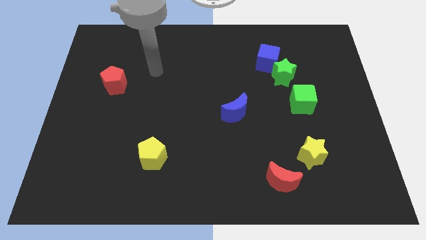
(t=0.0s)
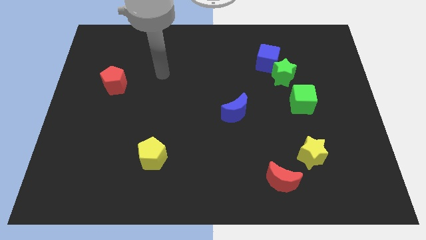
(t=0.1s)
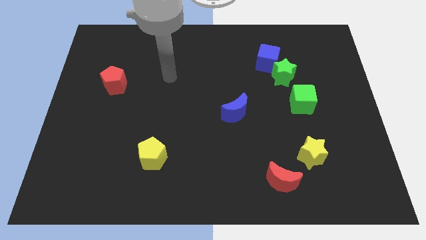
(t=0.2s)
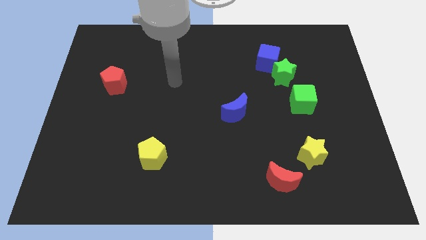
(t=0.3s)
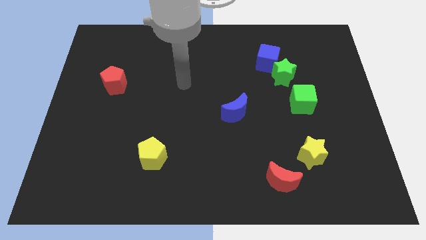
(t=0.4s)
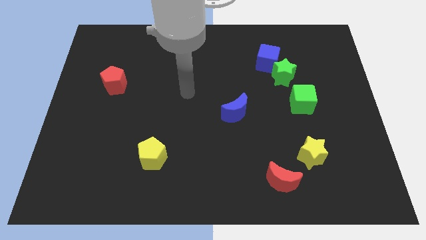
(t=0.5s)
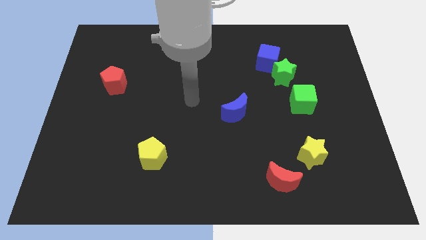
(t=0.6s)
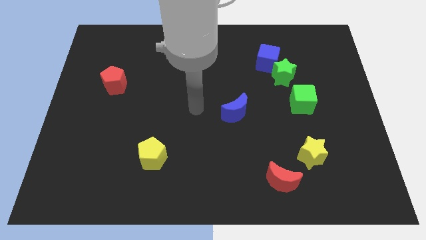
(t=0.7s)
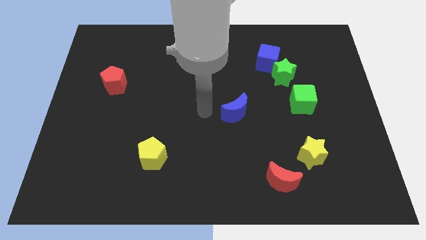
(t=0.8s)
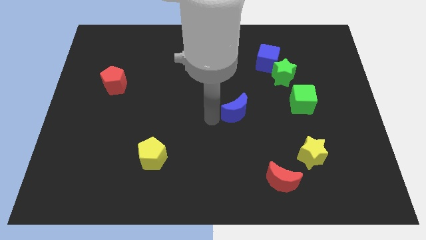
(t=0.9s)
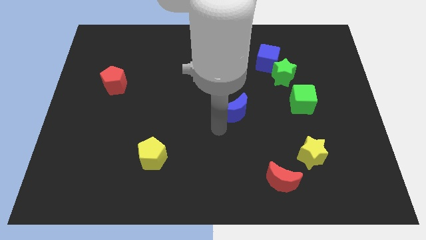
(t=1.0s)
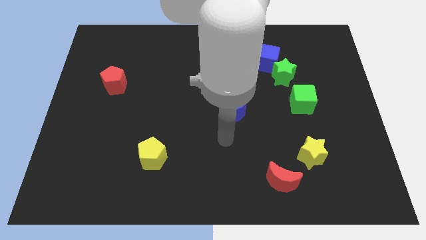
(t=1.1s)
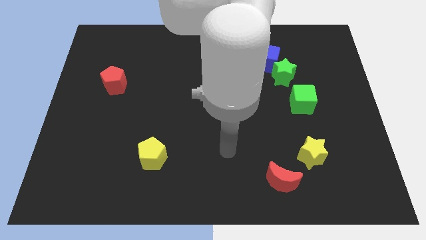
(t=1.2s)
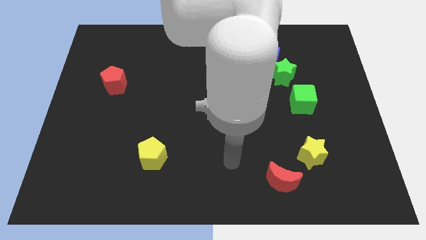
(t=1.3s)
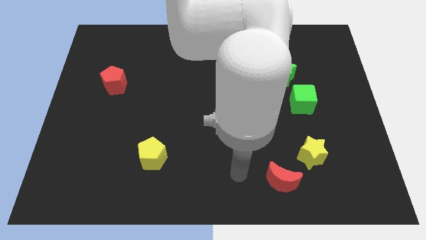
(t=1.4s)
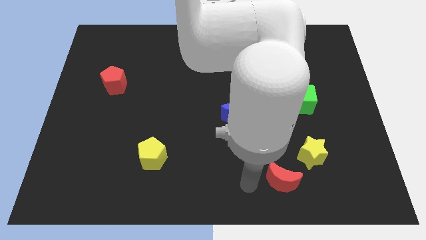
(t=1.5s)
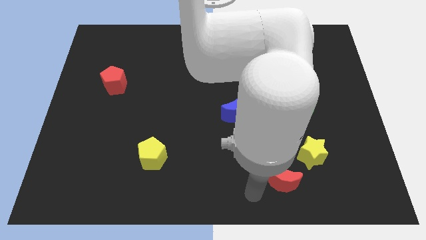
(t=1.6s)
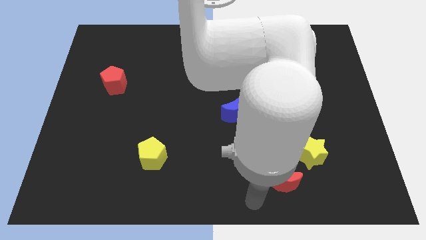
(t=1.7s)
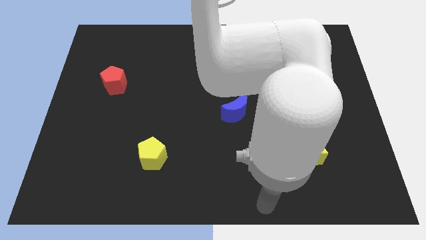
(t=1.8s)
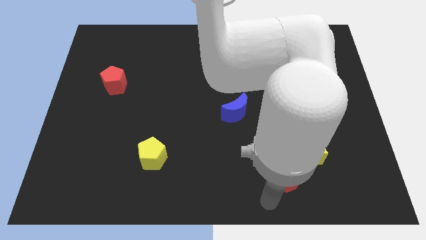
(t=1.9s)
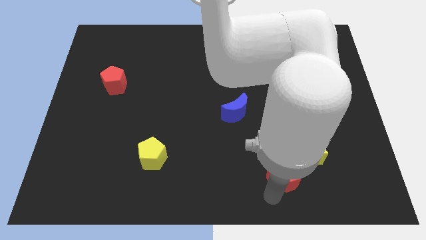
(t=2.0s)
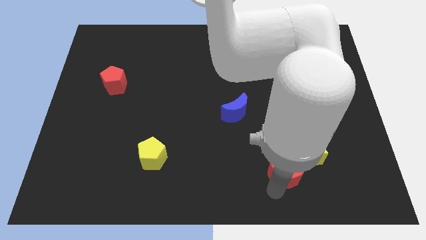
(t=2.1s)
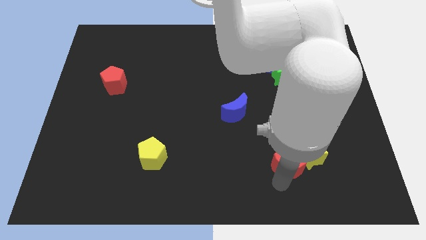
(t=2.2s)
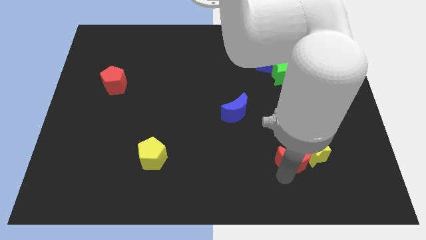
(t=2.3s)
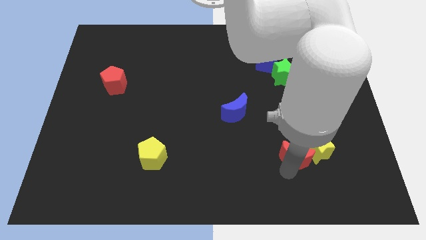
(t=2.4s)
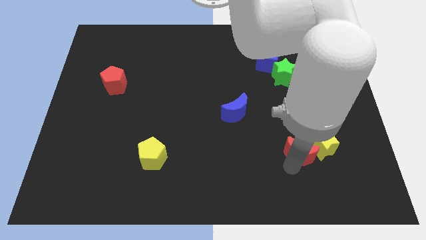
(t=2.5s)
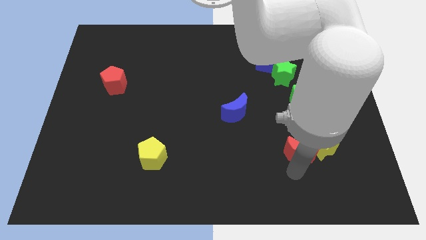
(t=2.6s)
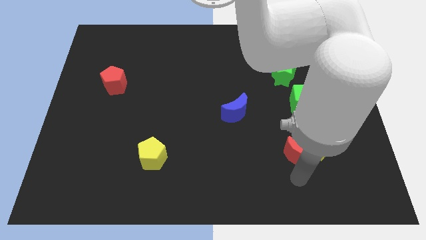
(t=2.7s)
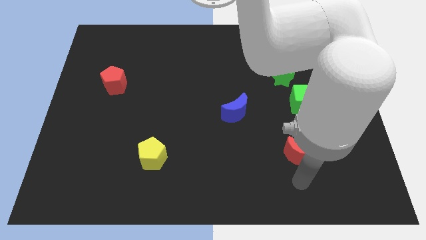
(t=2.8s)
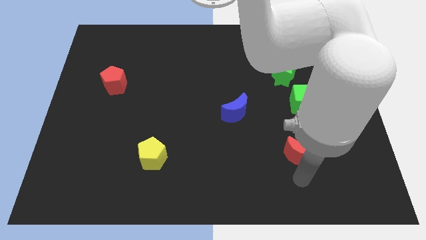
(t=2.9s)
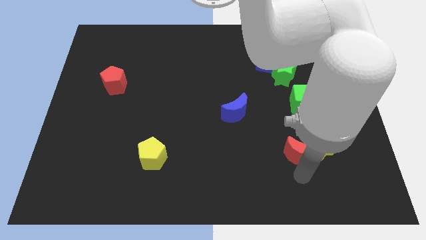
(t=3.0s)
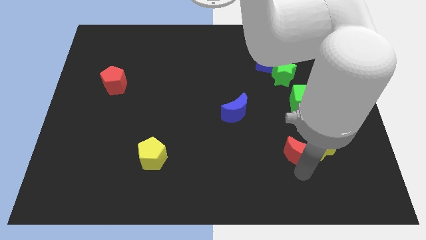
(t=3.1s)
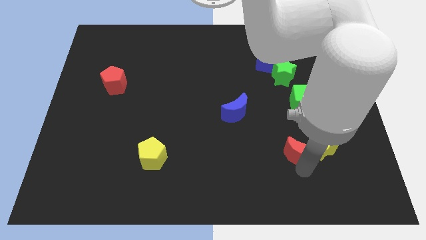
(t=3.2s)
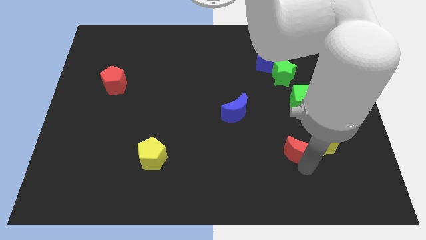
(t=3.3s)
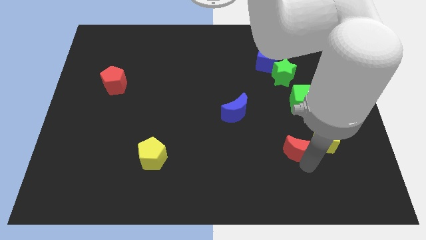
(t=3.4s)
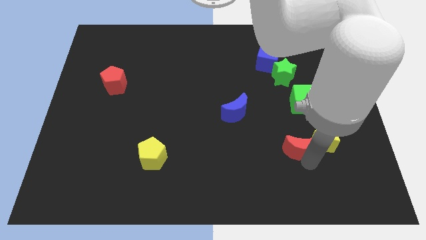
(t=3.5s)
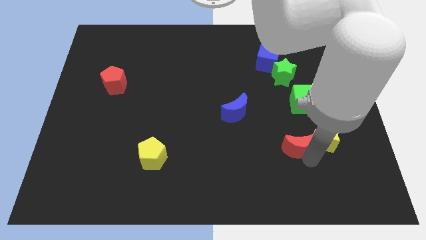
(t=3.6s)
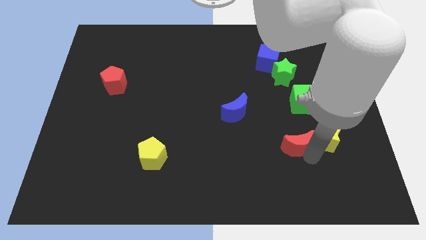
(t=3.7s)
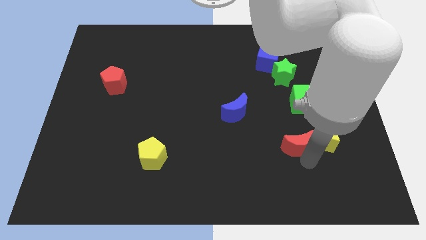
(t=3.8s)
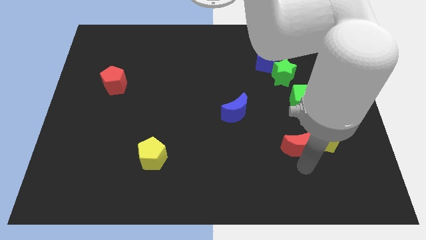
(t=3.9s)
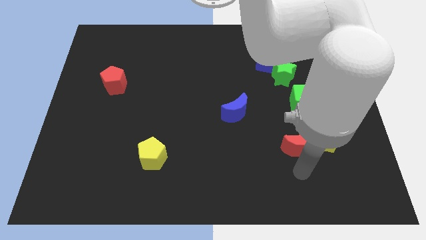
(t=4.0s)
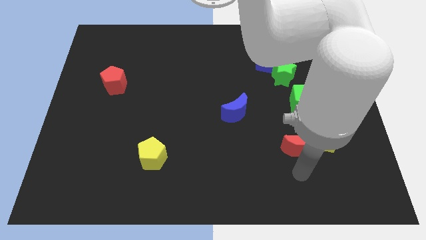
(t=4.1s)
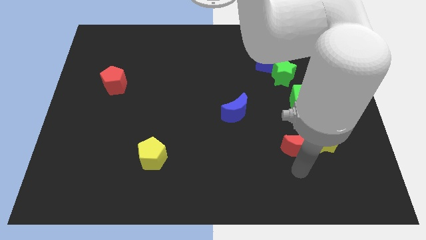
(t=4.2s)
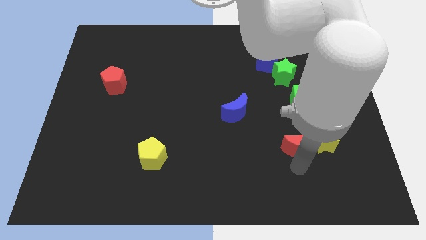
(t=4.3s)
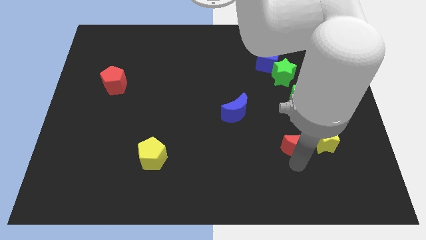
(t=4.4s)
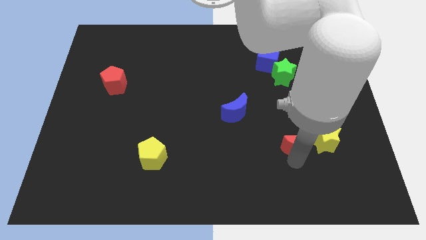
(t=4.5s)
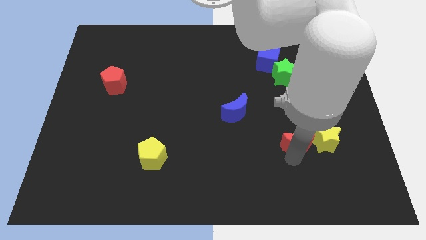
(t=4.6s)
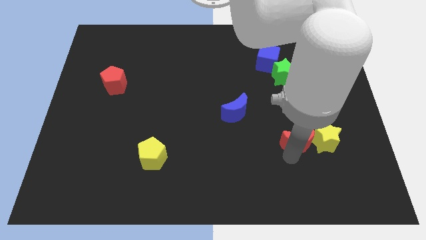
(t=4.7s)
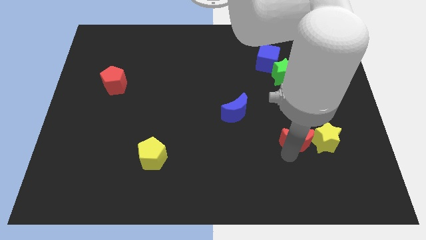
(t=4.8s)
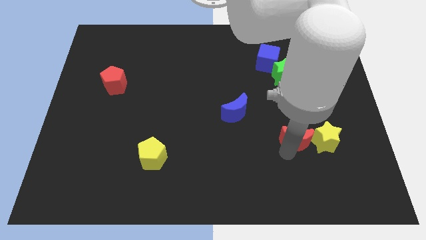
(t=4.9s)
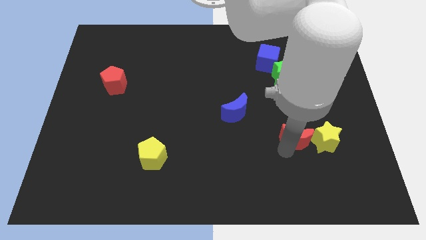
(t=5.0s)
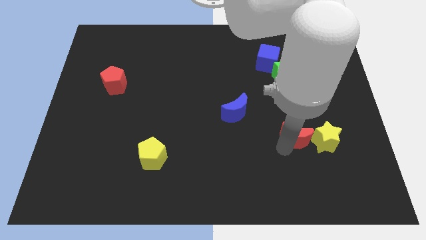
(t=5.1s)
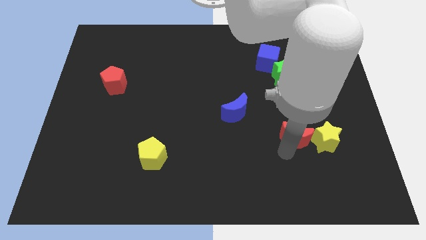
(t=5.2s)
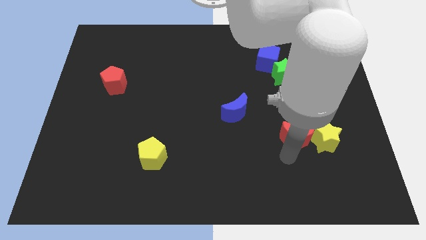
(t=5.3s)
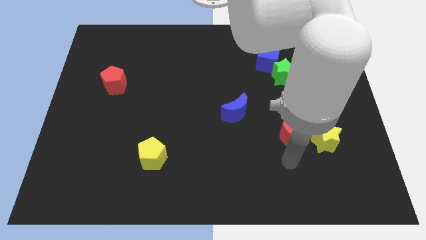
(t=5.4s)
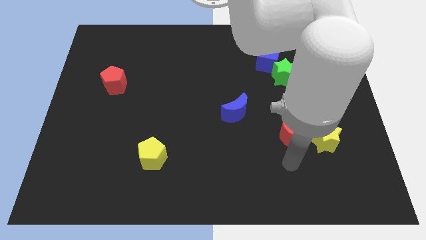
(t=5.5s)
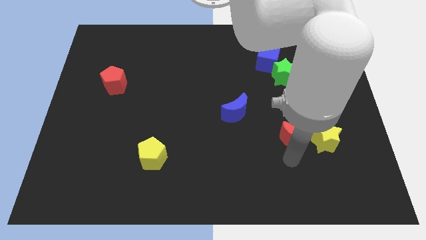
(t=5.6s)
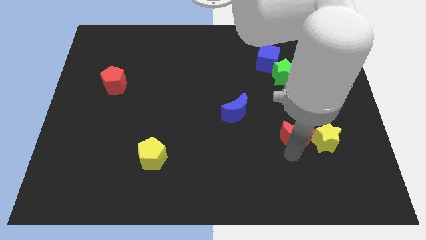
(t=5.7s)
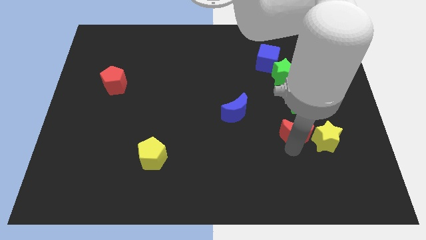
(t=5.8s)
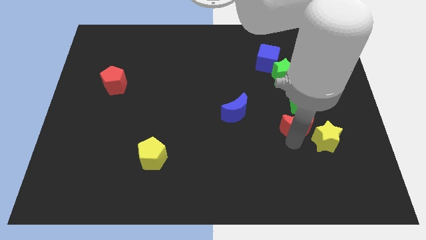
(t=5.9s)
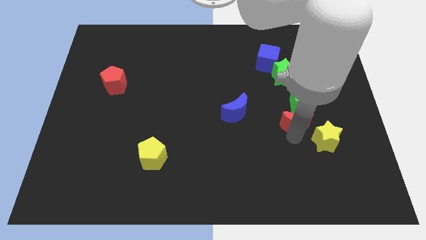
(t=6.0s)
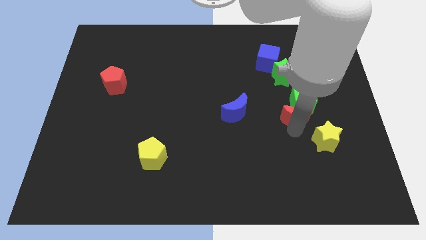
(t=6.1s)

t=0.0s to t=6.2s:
move the red moon towards the green cube
